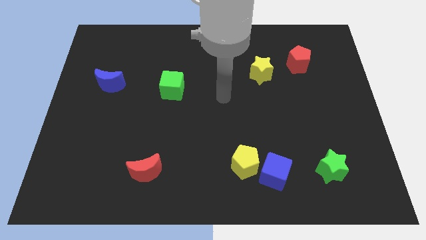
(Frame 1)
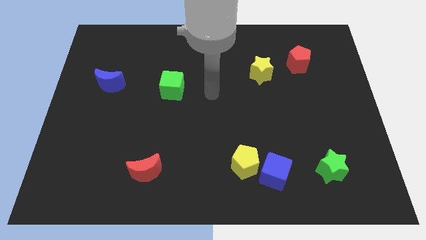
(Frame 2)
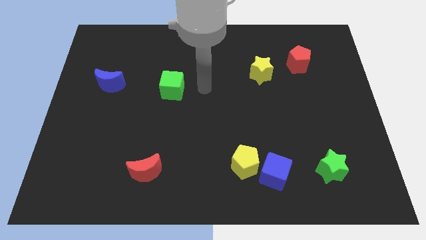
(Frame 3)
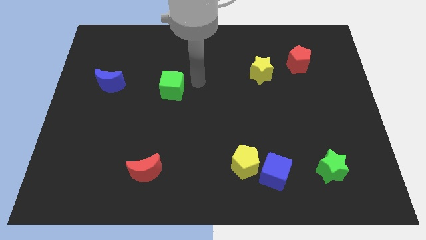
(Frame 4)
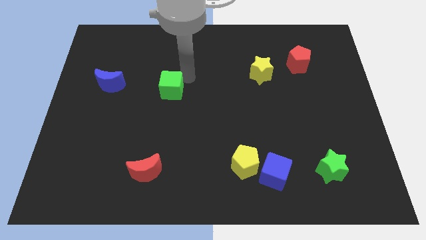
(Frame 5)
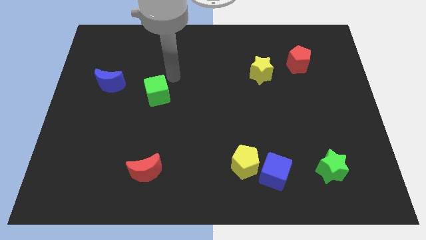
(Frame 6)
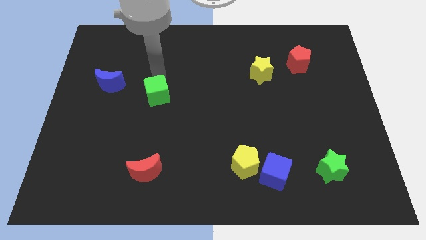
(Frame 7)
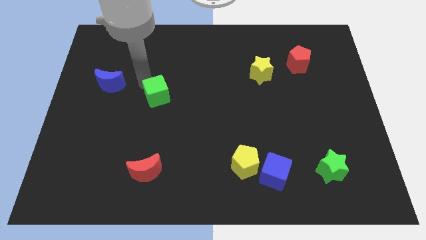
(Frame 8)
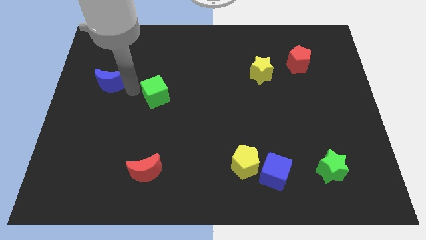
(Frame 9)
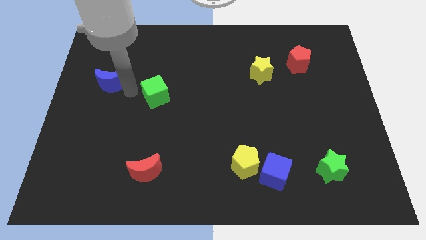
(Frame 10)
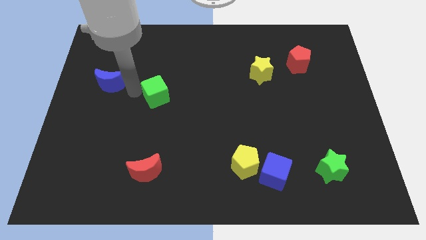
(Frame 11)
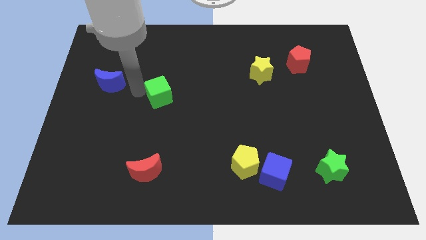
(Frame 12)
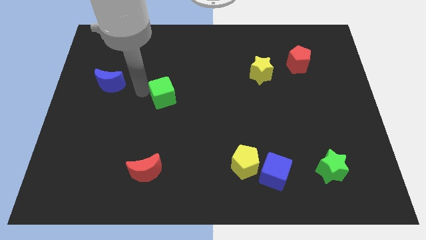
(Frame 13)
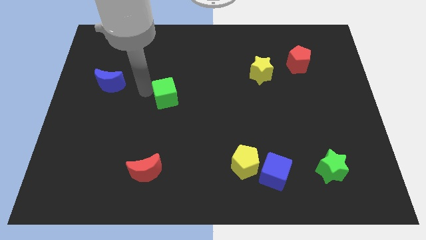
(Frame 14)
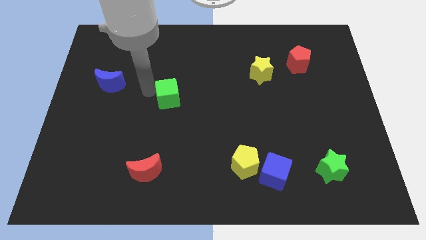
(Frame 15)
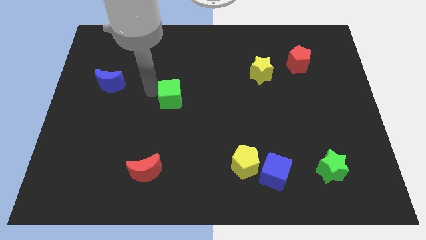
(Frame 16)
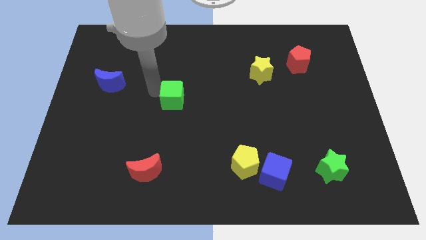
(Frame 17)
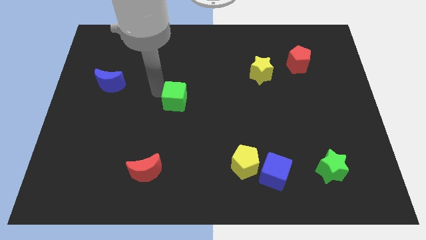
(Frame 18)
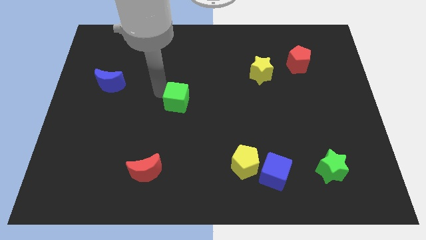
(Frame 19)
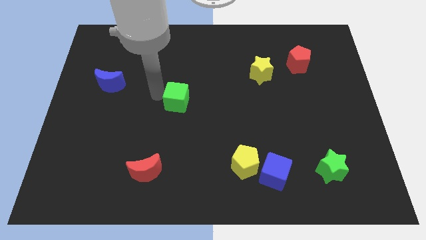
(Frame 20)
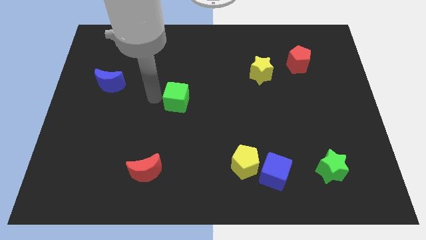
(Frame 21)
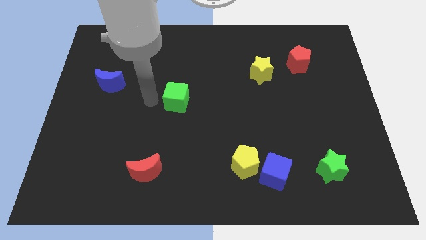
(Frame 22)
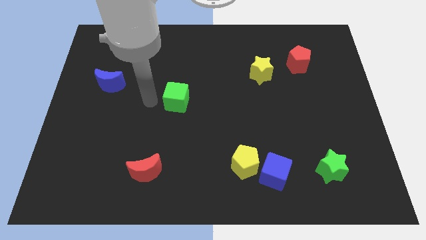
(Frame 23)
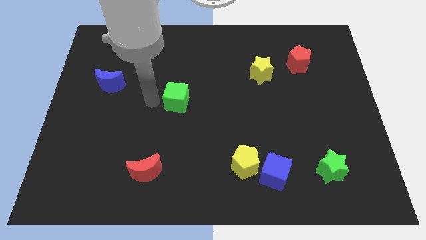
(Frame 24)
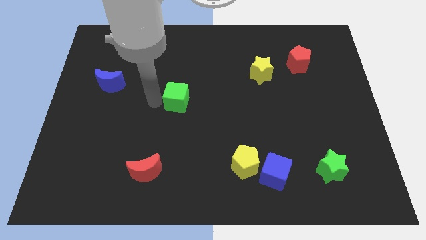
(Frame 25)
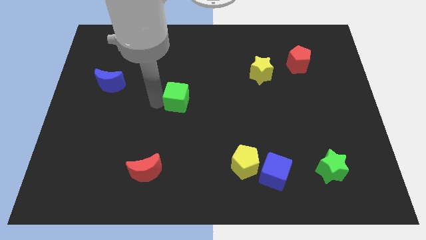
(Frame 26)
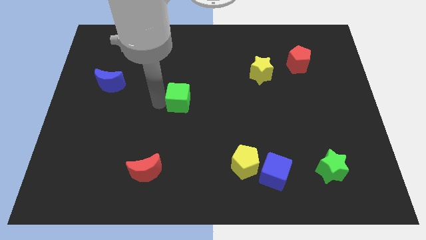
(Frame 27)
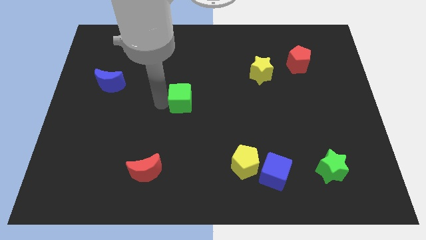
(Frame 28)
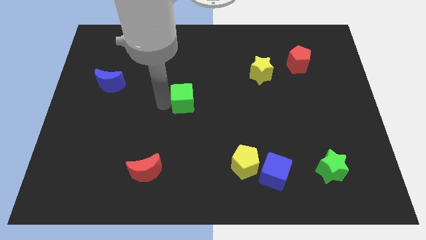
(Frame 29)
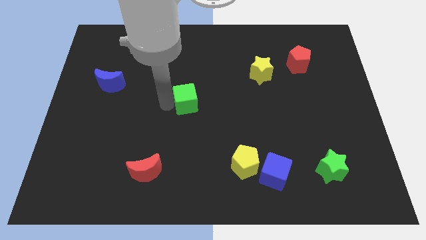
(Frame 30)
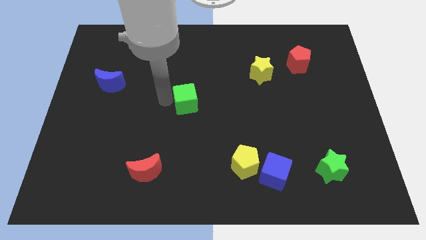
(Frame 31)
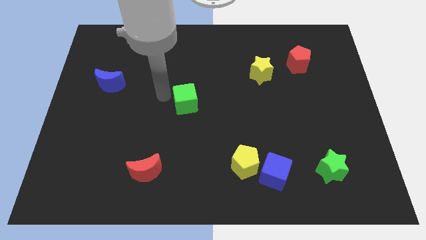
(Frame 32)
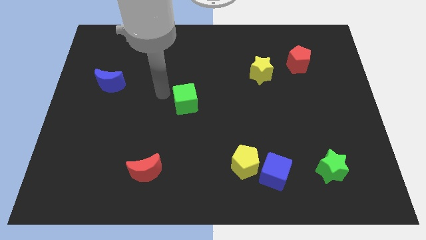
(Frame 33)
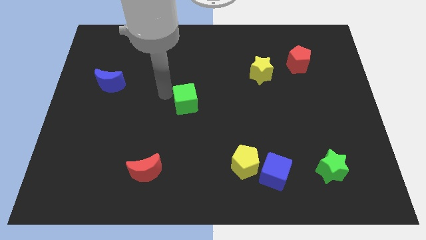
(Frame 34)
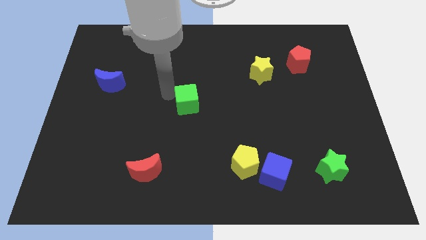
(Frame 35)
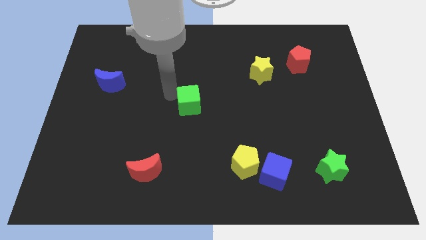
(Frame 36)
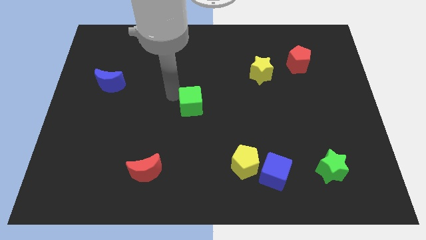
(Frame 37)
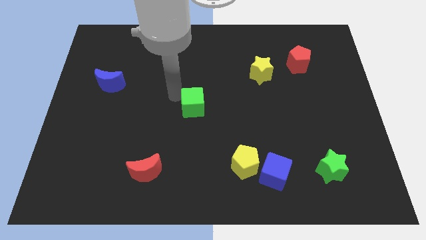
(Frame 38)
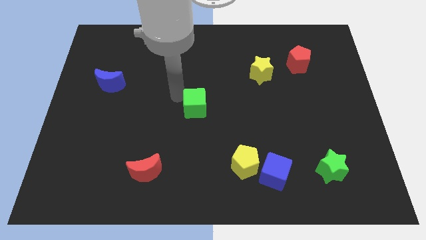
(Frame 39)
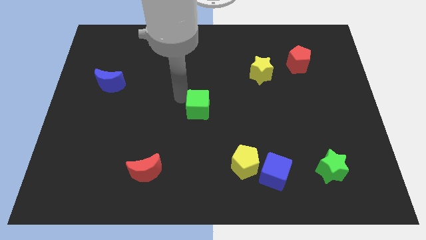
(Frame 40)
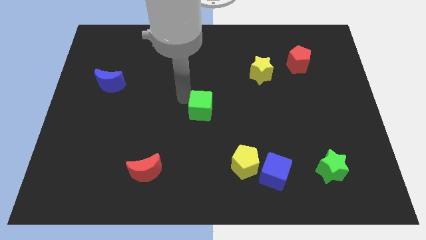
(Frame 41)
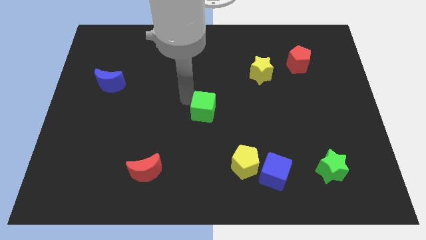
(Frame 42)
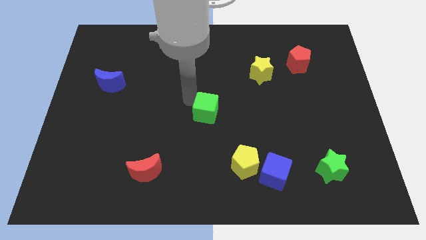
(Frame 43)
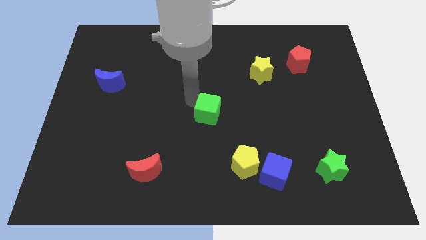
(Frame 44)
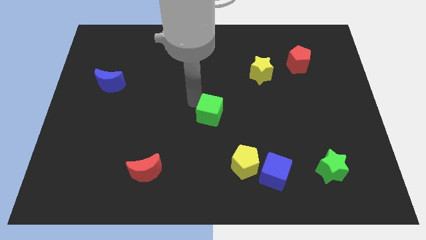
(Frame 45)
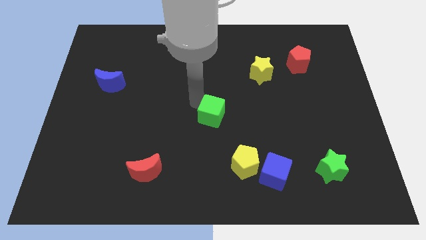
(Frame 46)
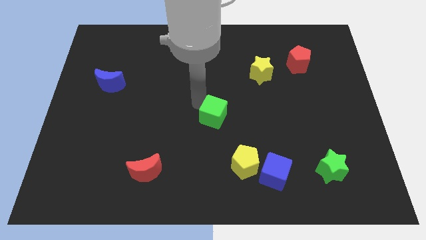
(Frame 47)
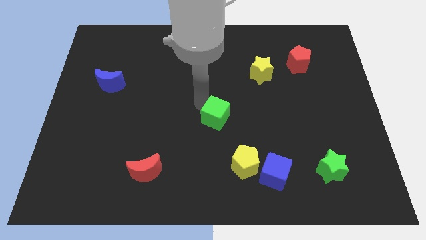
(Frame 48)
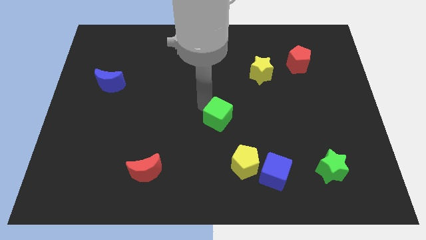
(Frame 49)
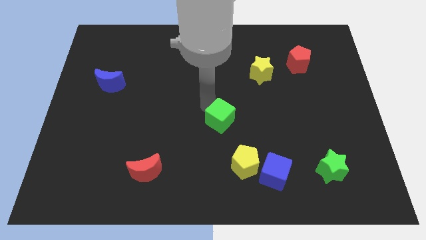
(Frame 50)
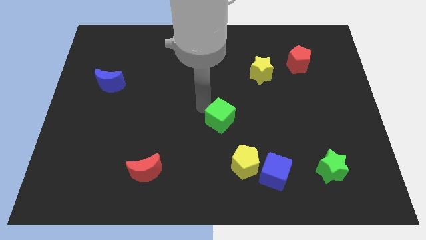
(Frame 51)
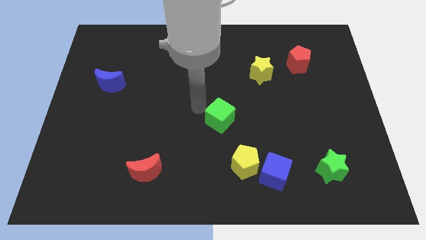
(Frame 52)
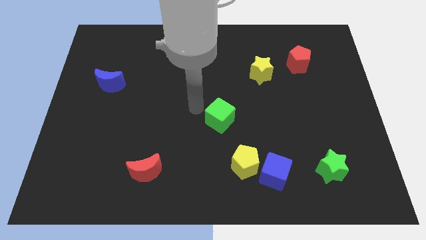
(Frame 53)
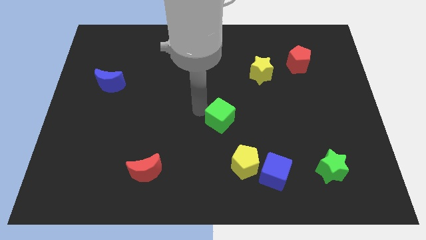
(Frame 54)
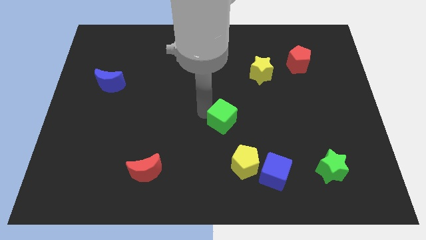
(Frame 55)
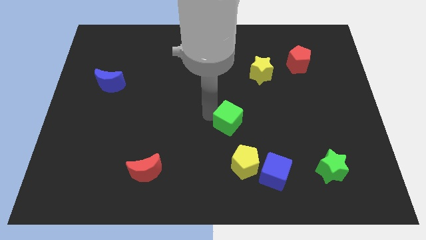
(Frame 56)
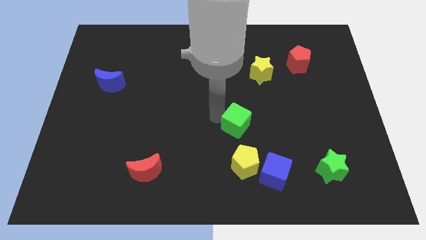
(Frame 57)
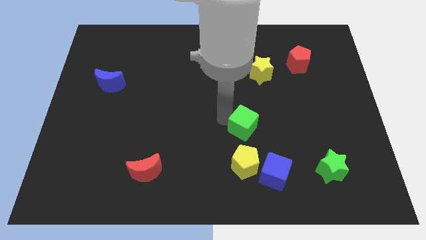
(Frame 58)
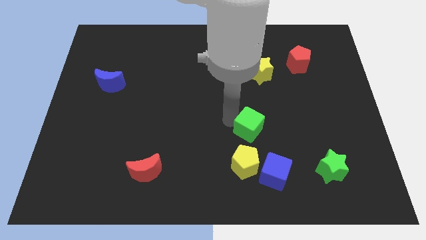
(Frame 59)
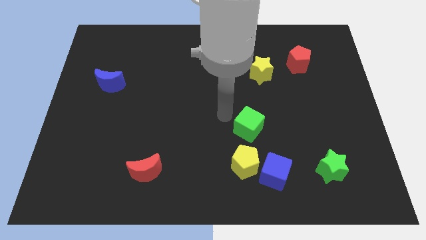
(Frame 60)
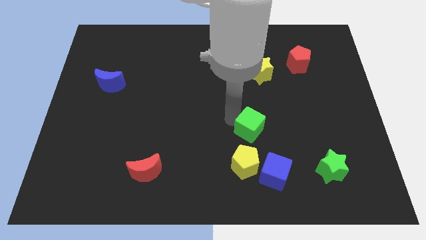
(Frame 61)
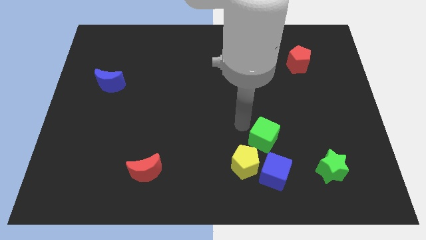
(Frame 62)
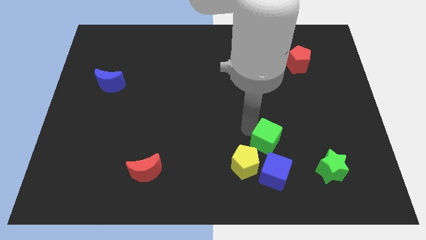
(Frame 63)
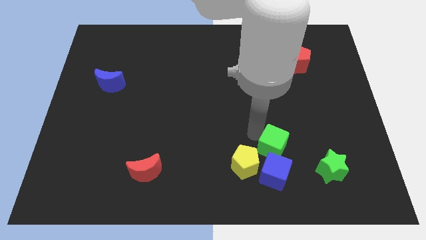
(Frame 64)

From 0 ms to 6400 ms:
put the green cube to the top right of the blue cube
